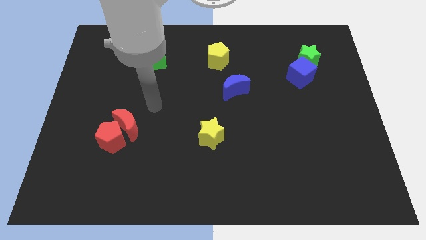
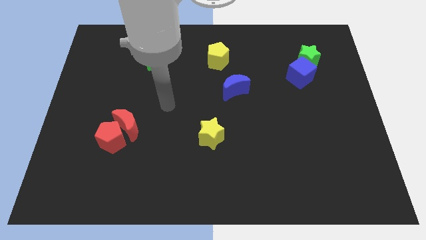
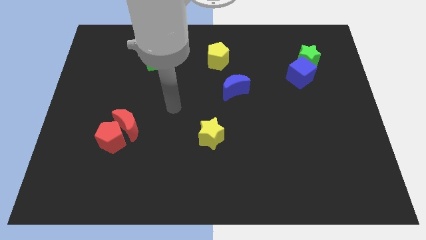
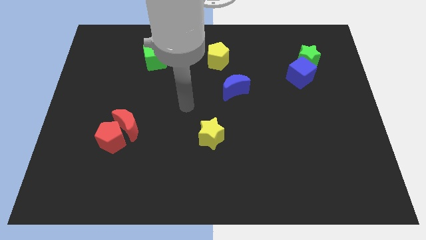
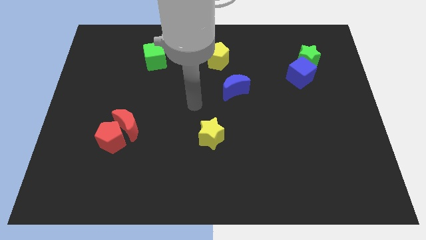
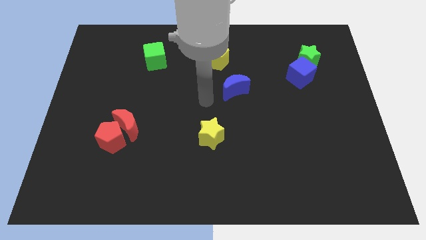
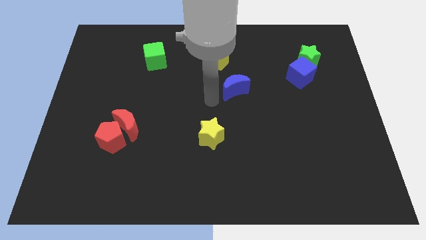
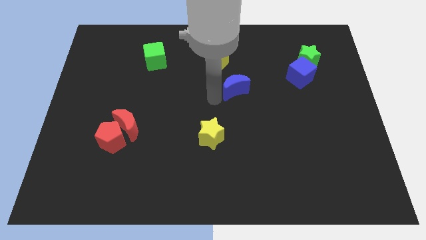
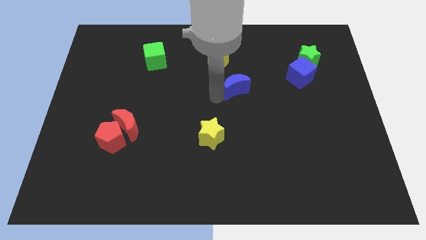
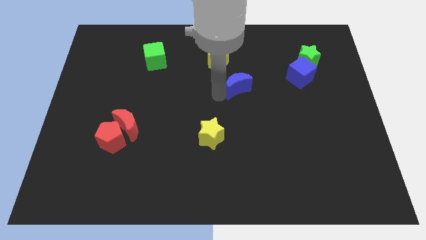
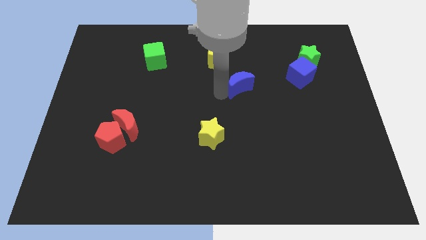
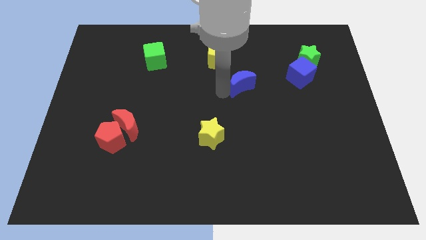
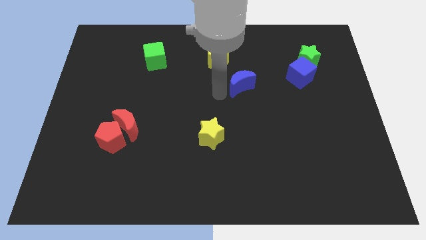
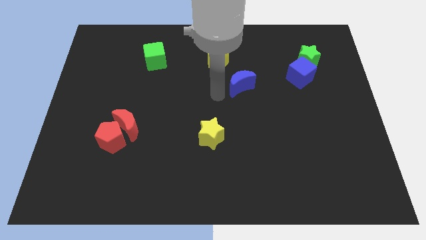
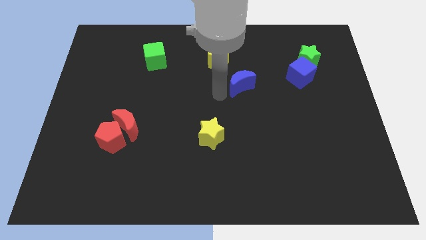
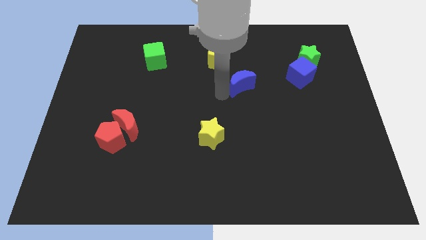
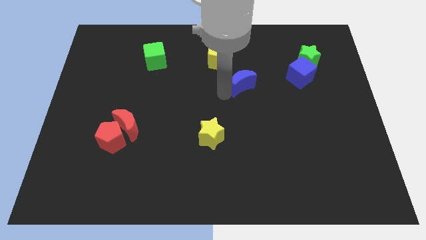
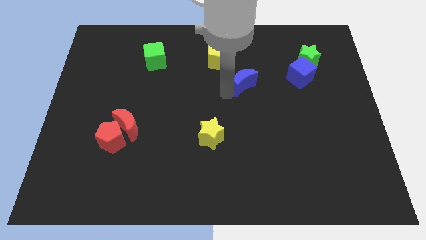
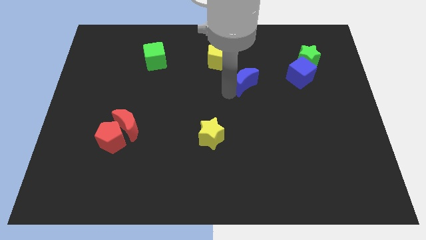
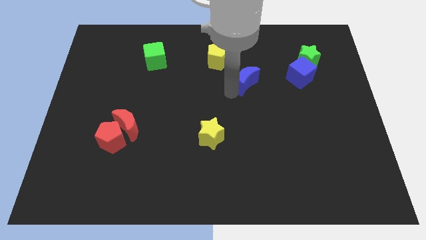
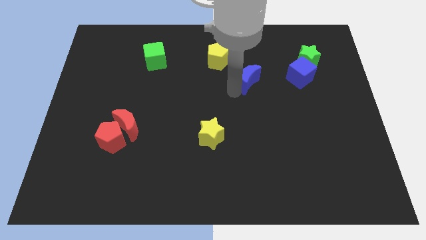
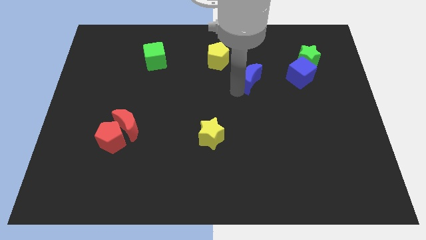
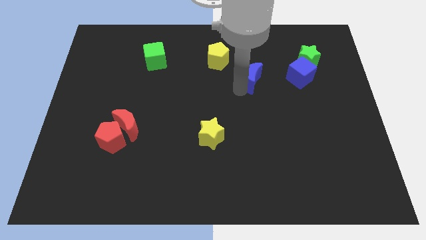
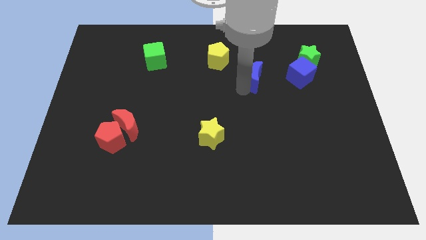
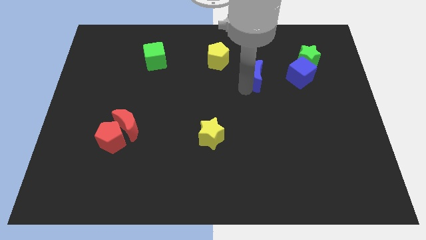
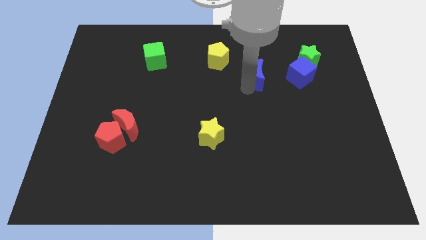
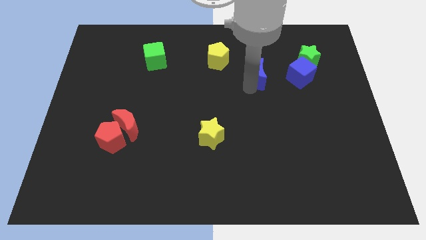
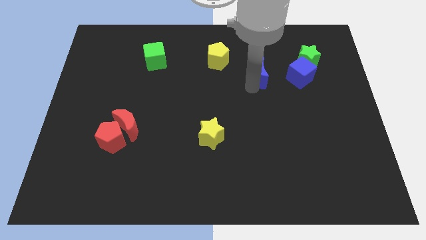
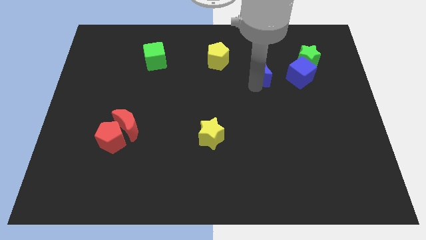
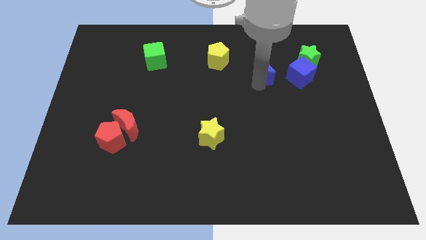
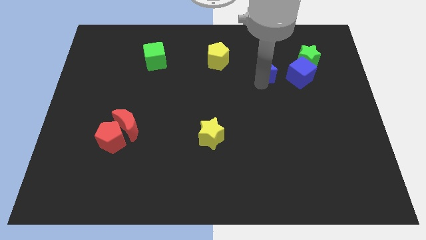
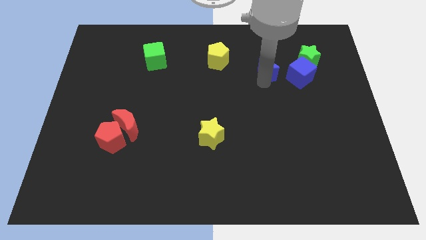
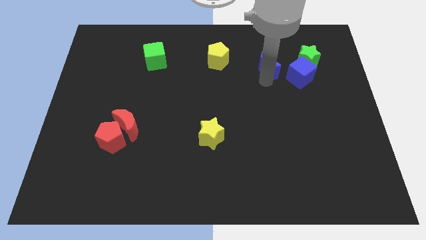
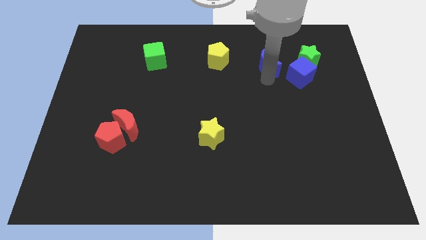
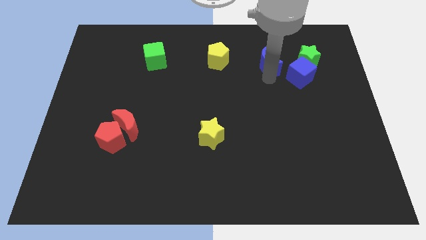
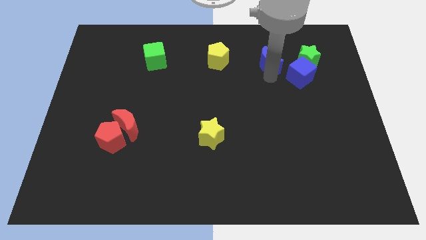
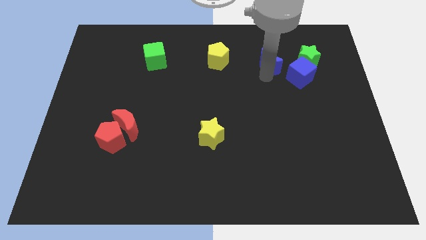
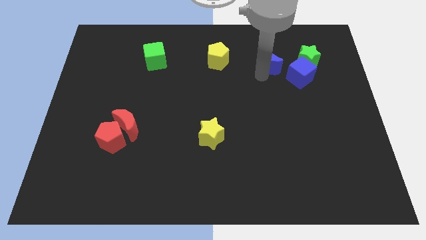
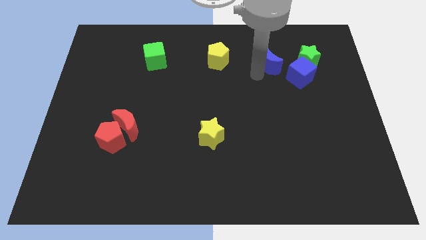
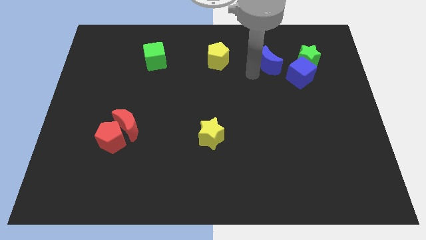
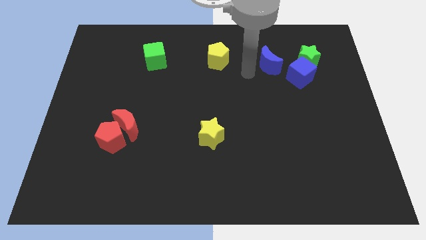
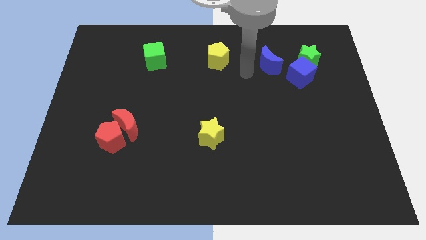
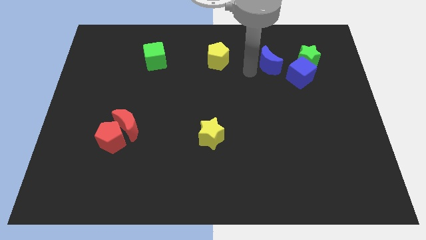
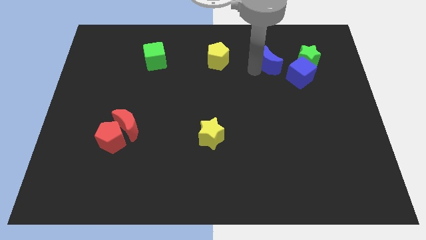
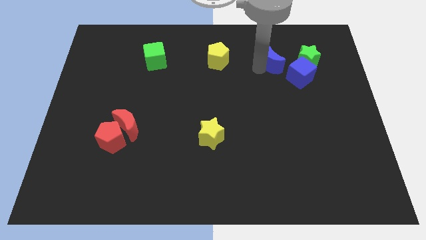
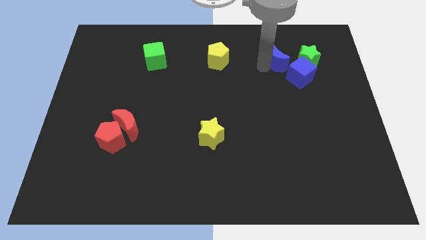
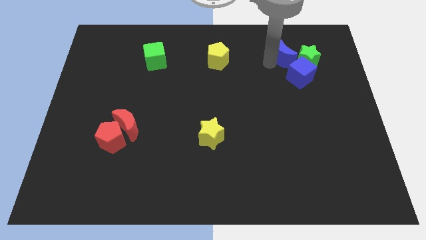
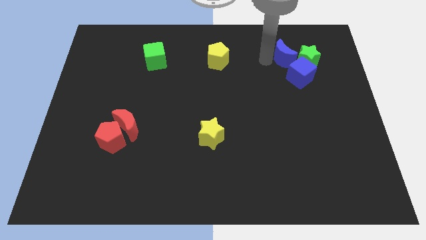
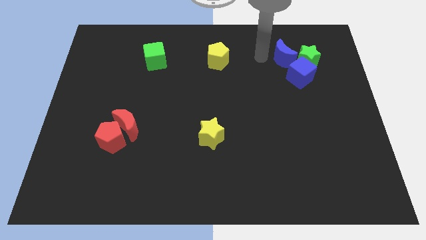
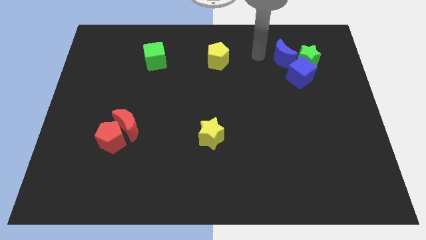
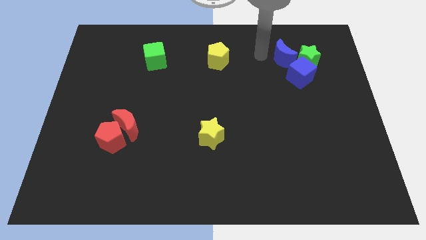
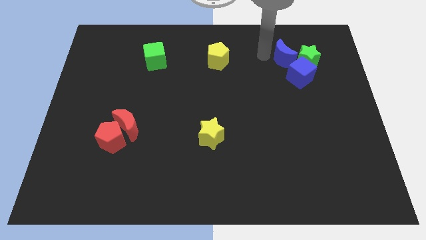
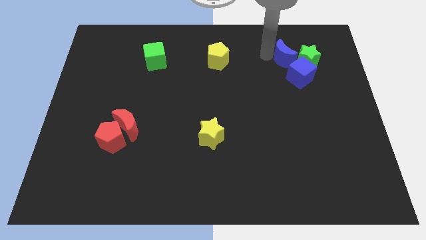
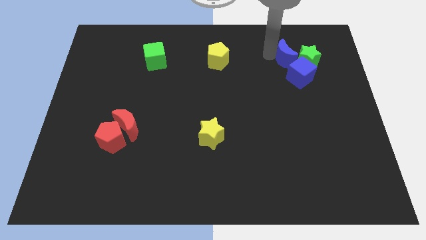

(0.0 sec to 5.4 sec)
slide the blue moon close to the green star

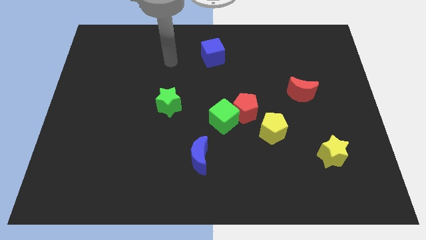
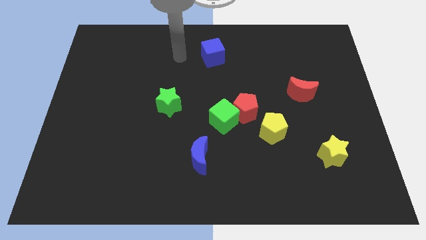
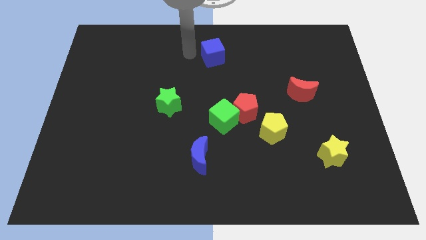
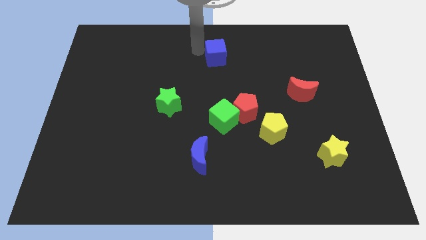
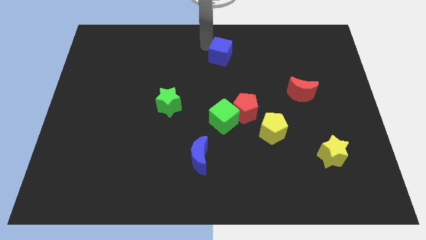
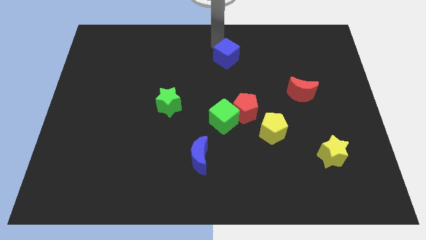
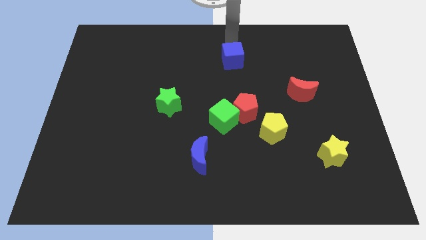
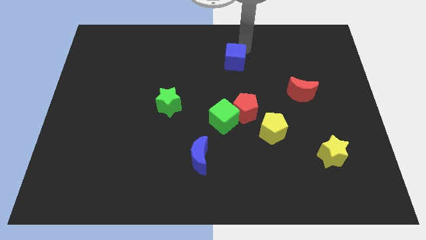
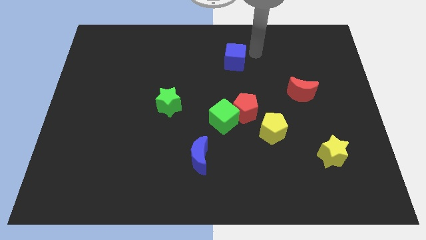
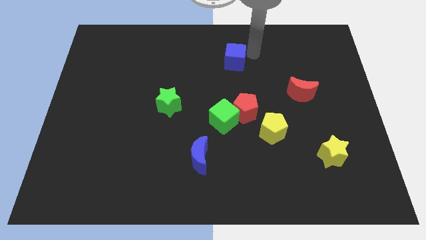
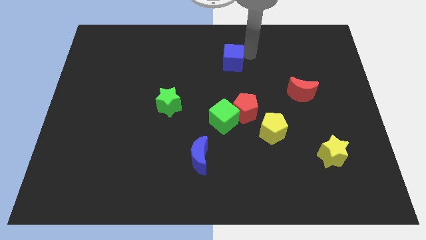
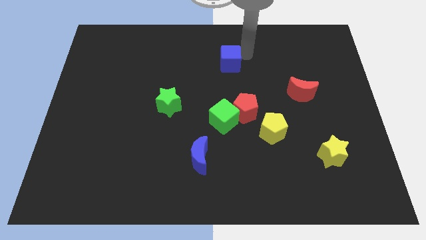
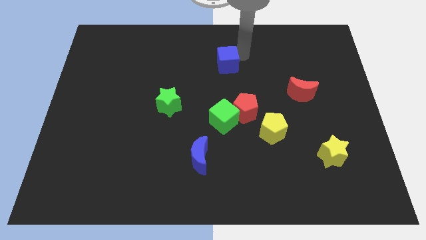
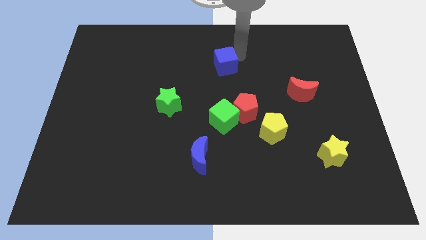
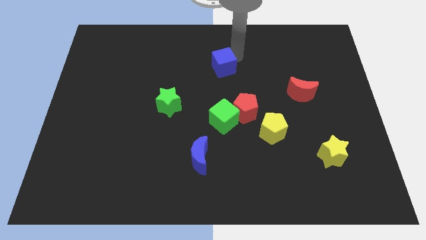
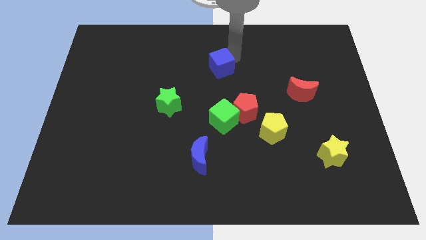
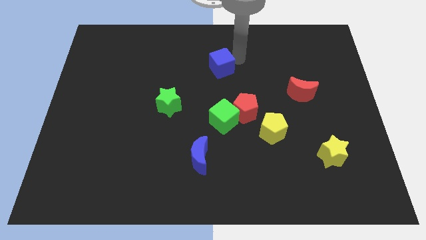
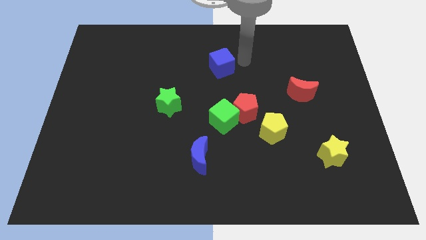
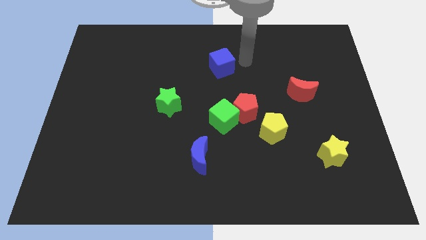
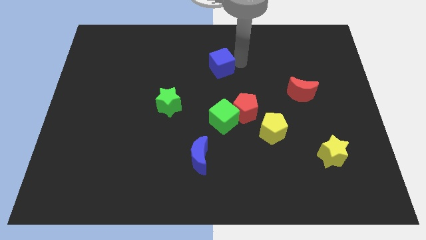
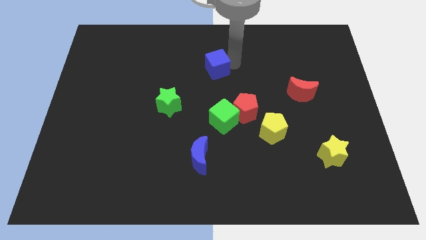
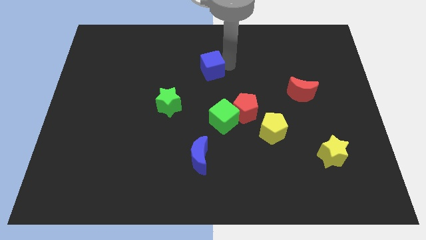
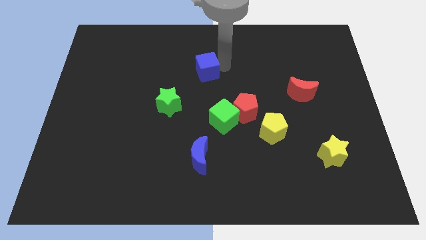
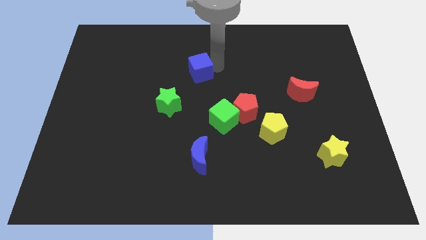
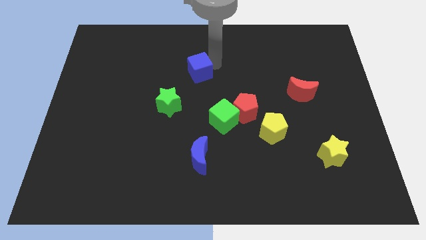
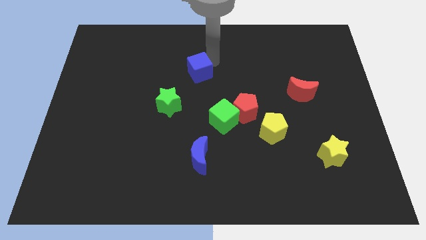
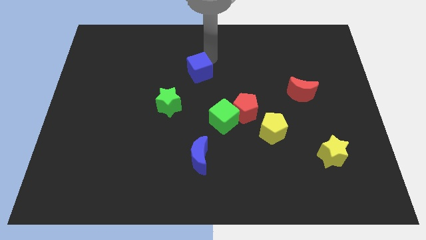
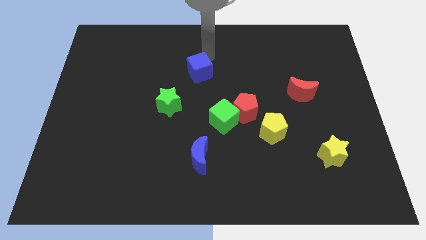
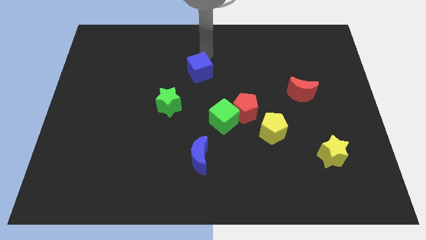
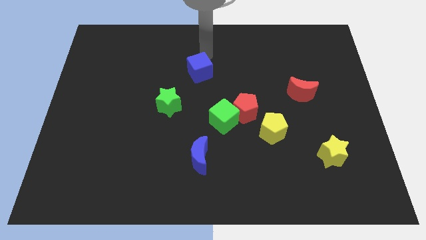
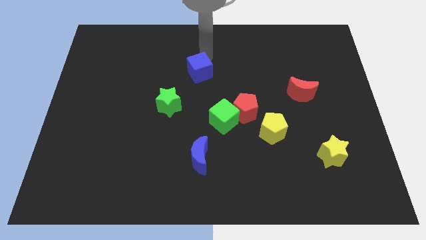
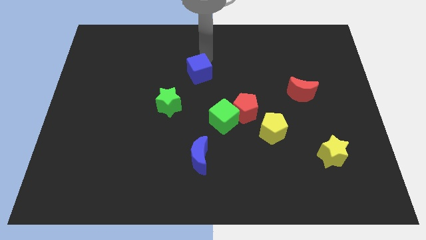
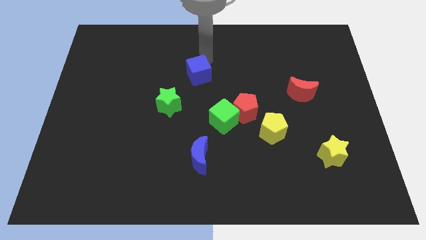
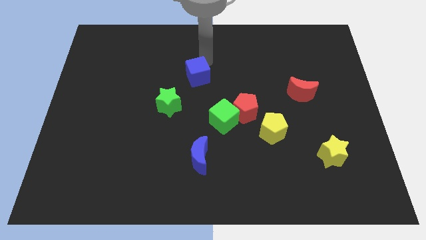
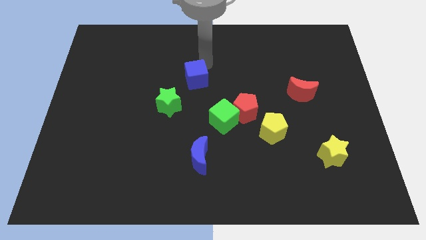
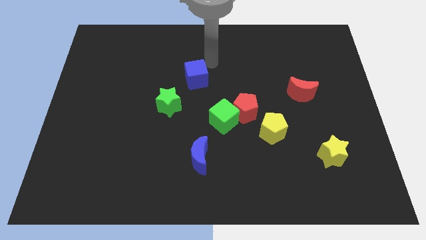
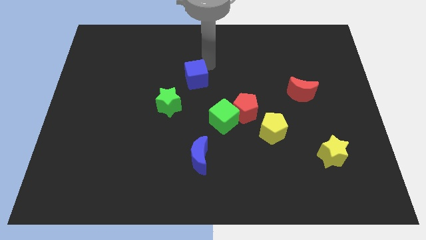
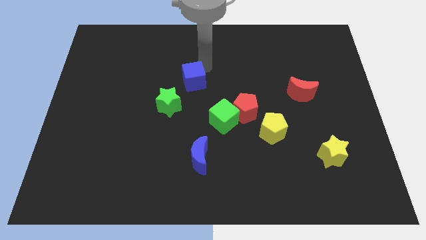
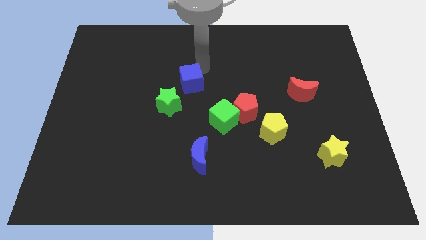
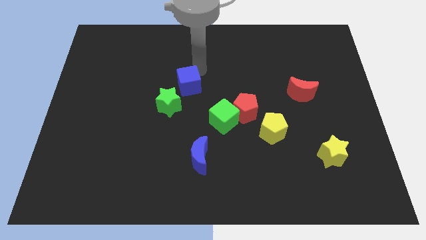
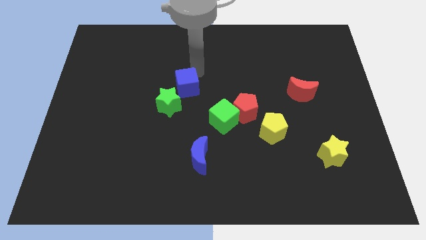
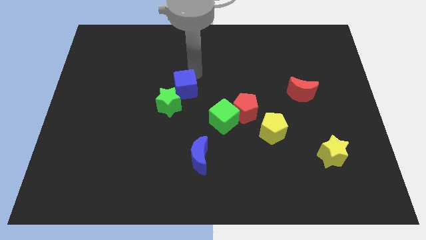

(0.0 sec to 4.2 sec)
slide the blue cube next to the green star
